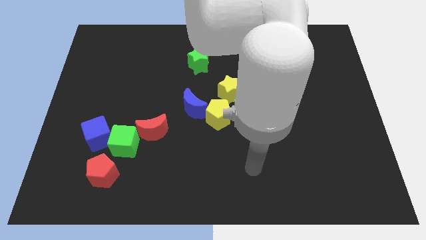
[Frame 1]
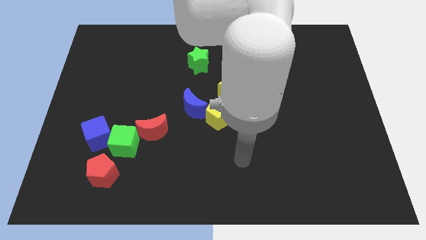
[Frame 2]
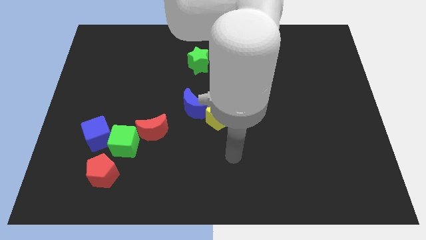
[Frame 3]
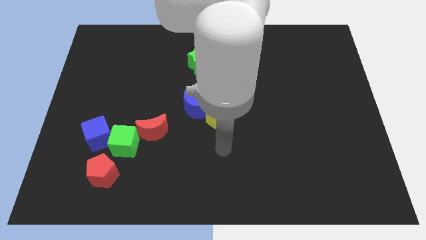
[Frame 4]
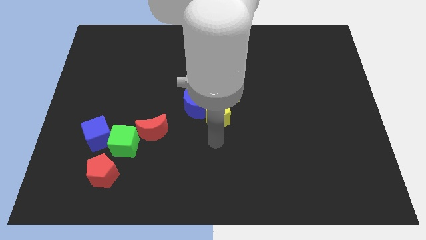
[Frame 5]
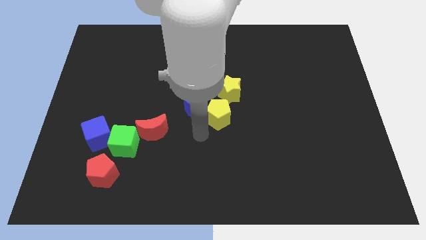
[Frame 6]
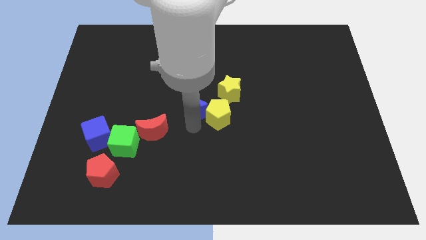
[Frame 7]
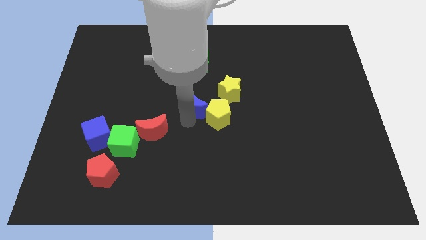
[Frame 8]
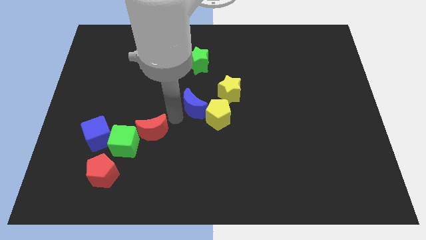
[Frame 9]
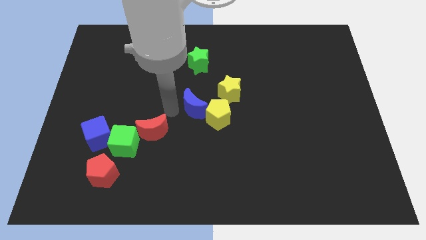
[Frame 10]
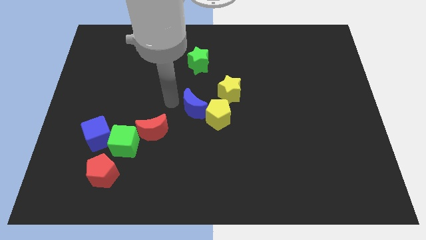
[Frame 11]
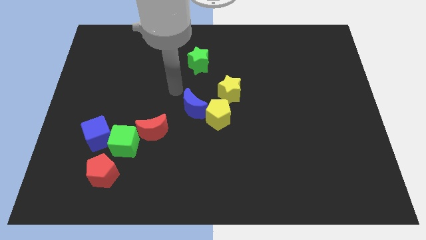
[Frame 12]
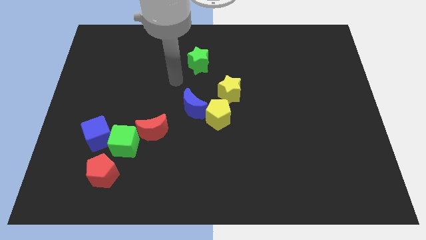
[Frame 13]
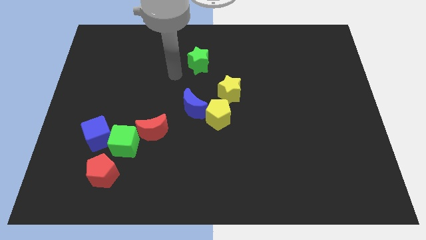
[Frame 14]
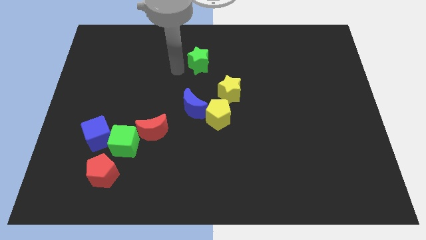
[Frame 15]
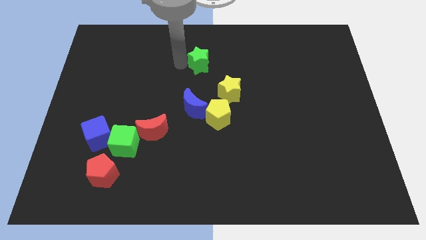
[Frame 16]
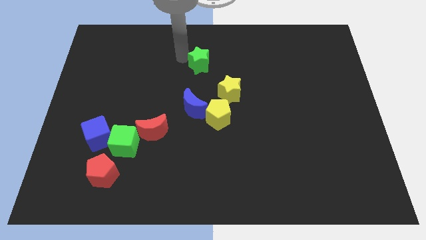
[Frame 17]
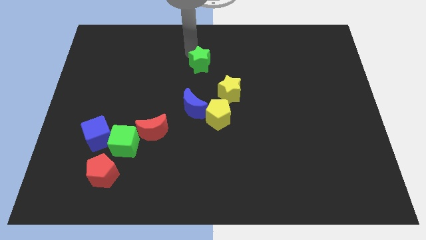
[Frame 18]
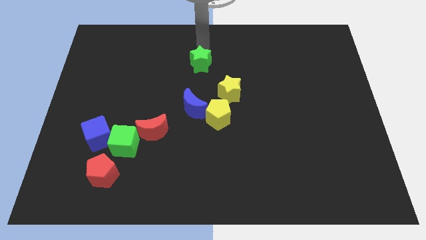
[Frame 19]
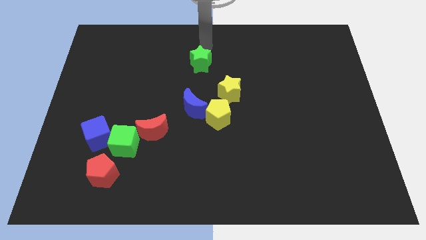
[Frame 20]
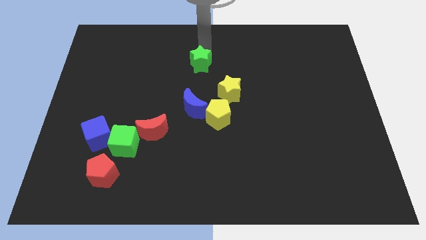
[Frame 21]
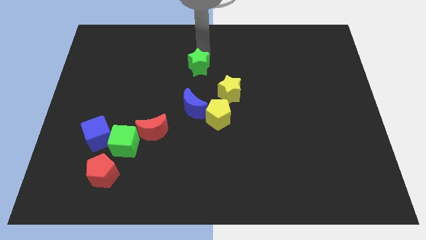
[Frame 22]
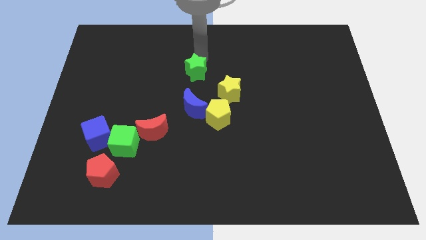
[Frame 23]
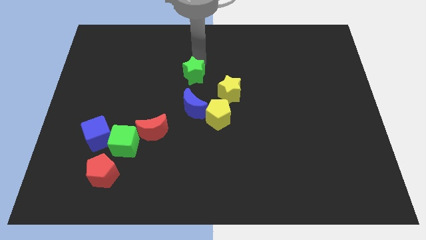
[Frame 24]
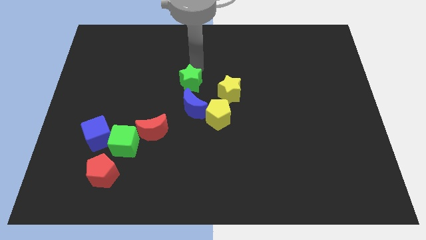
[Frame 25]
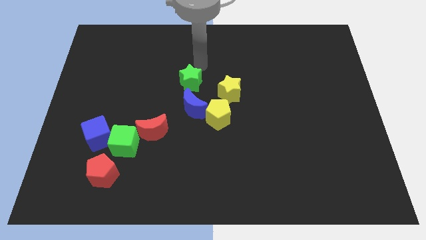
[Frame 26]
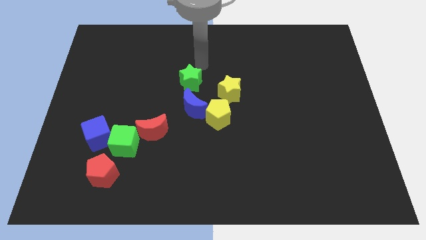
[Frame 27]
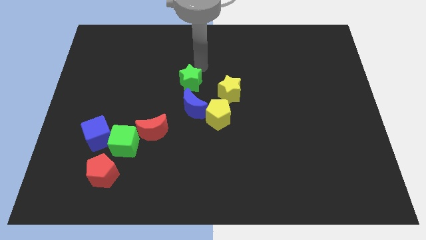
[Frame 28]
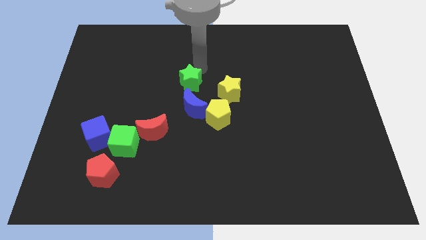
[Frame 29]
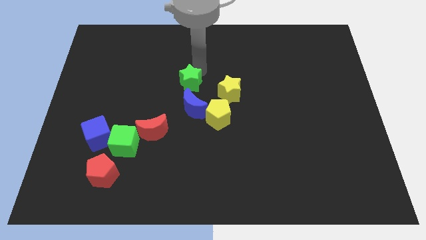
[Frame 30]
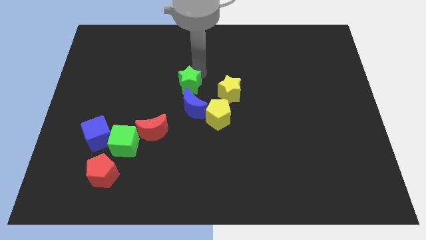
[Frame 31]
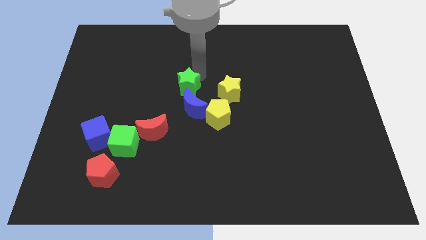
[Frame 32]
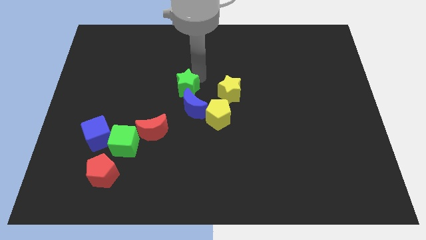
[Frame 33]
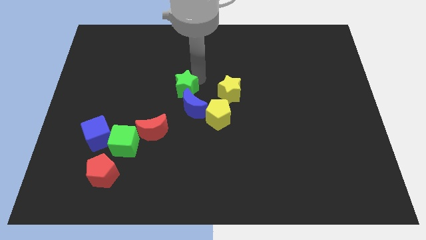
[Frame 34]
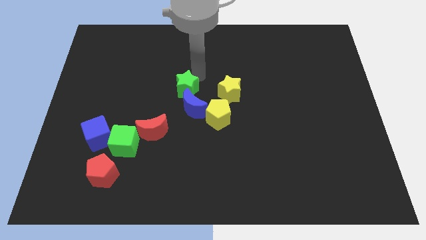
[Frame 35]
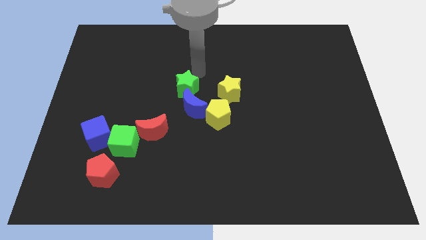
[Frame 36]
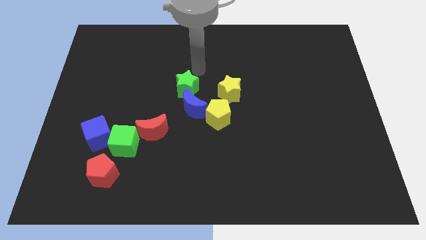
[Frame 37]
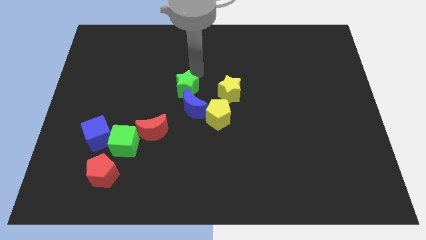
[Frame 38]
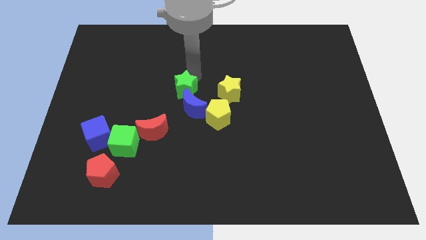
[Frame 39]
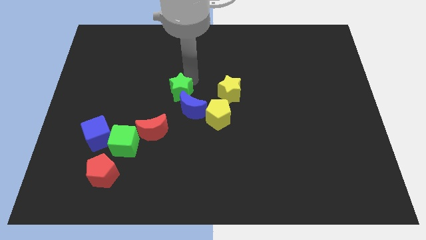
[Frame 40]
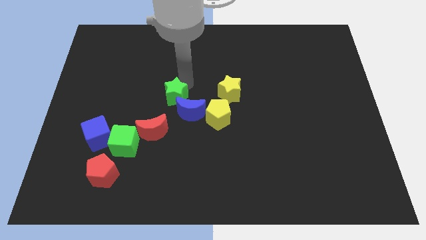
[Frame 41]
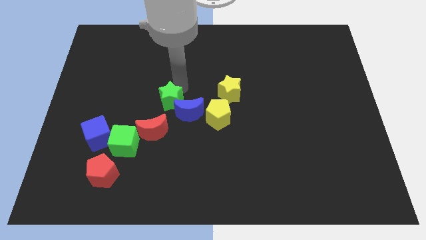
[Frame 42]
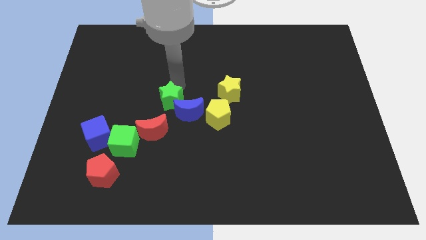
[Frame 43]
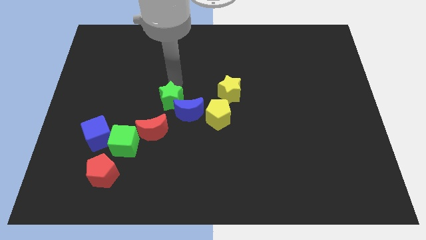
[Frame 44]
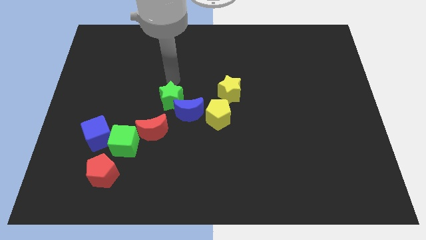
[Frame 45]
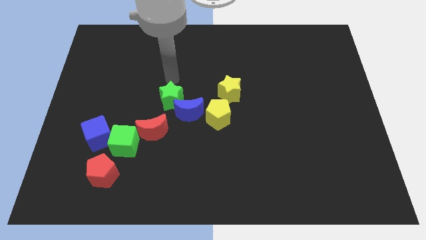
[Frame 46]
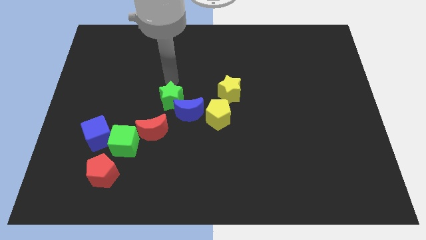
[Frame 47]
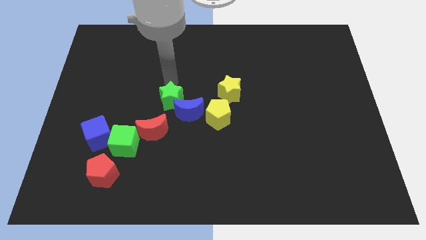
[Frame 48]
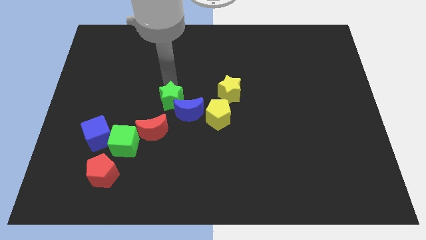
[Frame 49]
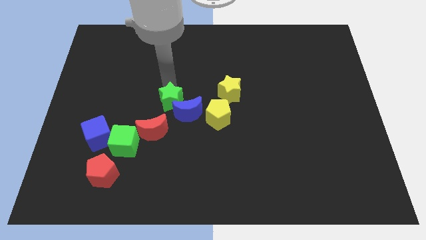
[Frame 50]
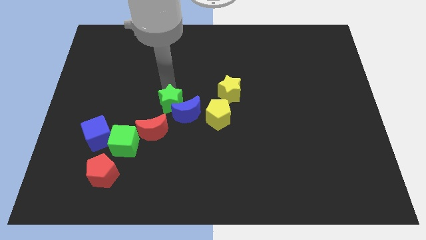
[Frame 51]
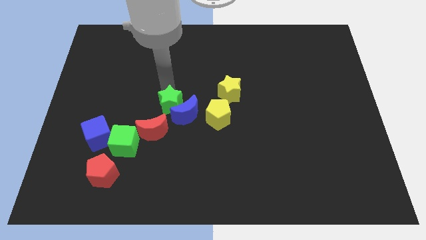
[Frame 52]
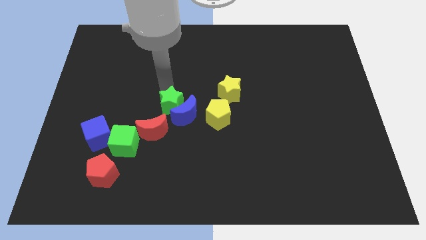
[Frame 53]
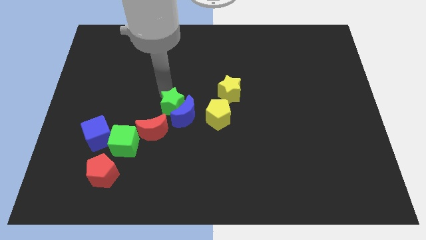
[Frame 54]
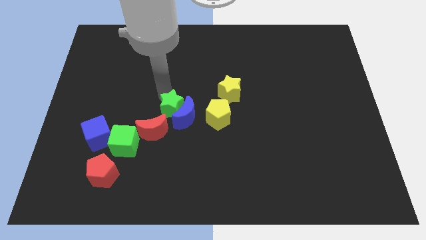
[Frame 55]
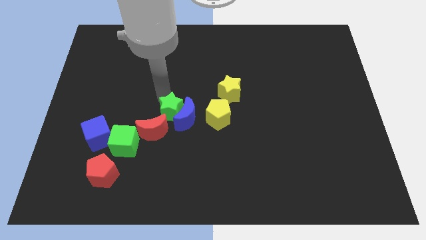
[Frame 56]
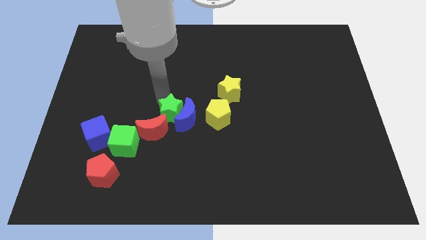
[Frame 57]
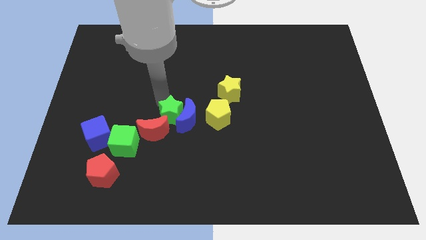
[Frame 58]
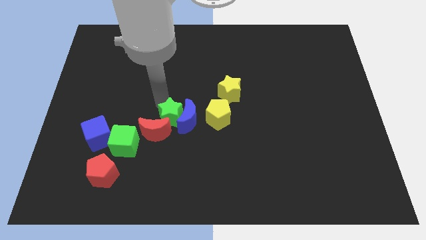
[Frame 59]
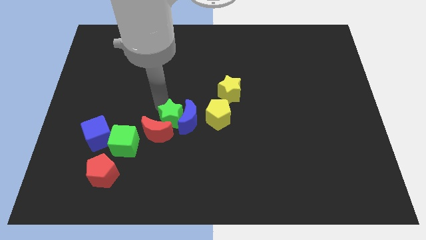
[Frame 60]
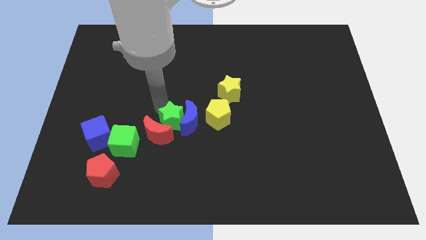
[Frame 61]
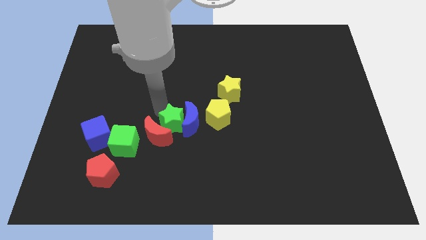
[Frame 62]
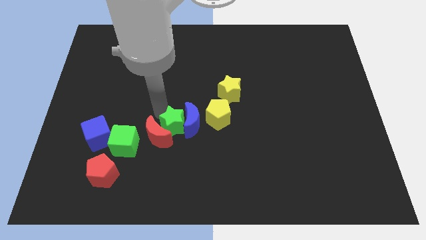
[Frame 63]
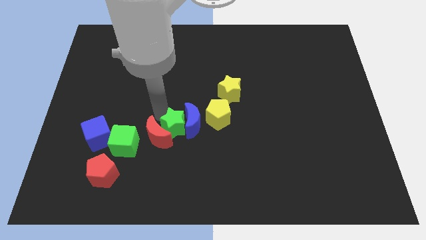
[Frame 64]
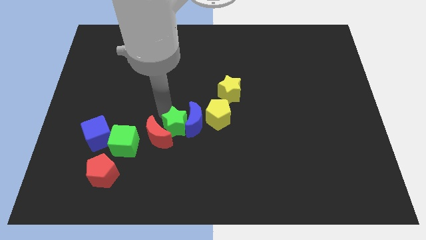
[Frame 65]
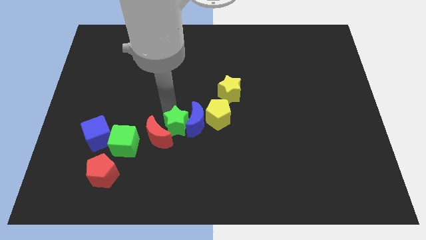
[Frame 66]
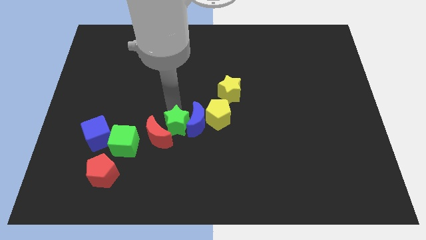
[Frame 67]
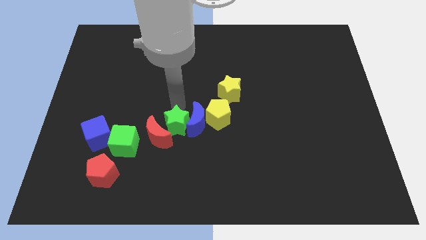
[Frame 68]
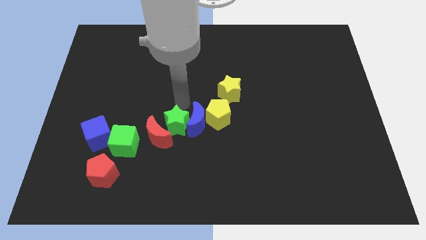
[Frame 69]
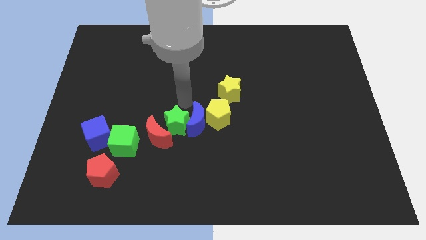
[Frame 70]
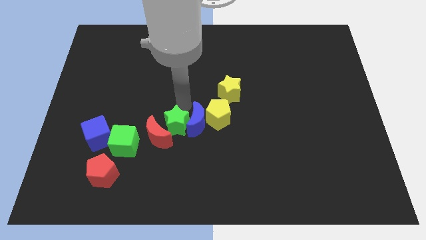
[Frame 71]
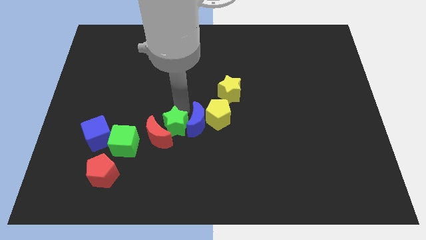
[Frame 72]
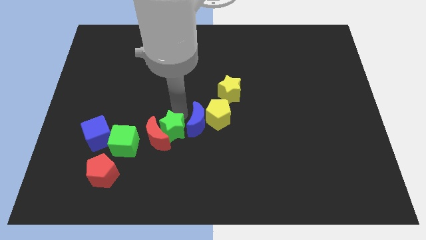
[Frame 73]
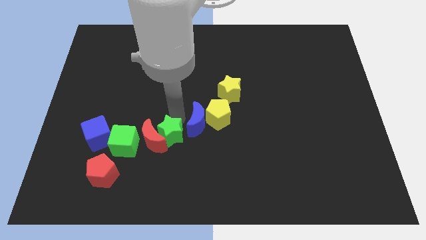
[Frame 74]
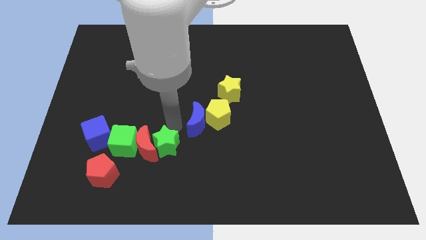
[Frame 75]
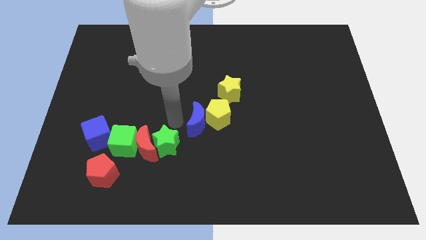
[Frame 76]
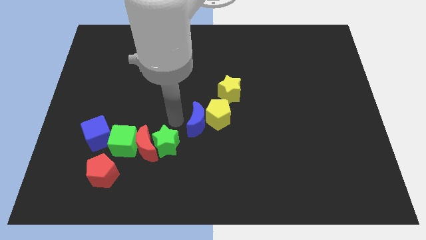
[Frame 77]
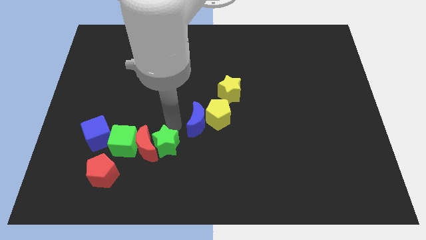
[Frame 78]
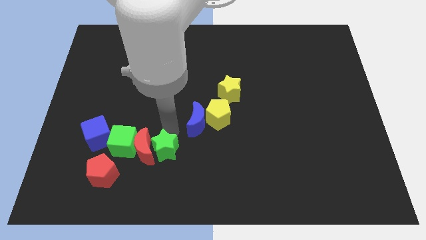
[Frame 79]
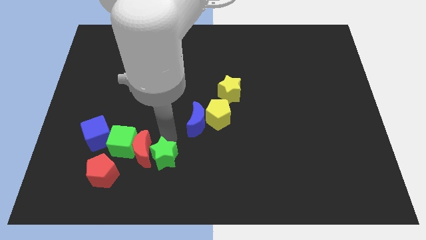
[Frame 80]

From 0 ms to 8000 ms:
slide the green star to the right of the red pentagon
